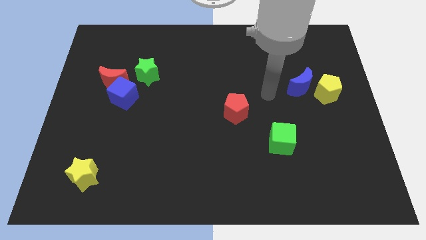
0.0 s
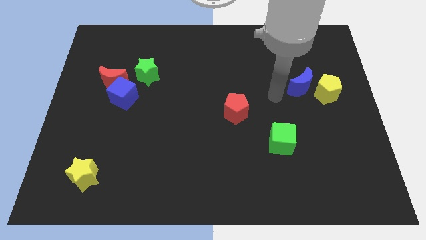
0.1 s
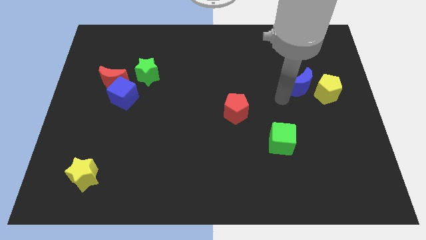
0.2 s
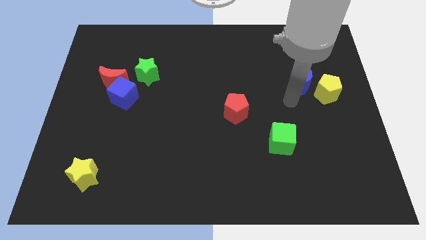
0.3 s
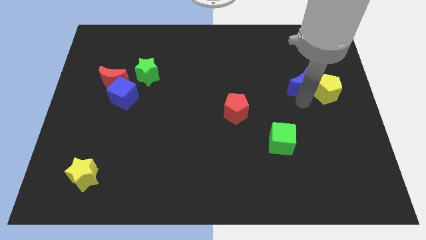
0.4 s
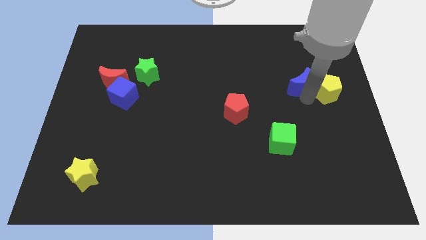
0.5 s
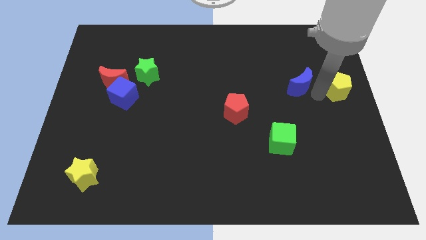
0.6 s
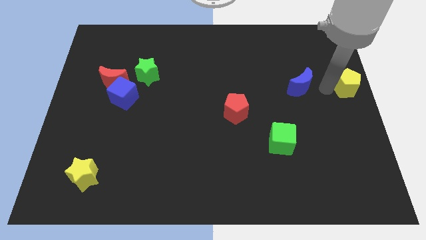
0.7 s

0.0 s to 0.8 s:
pull the blue moon apart from the yellow pentagon

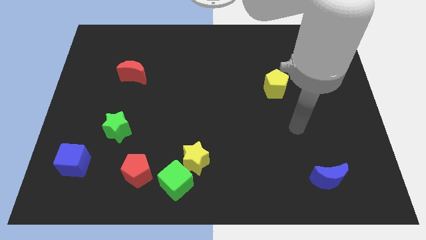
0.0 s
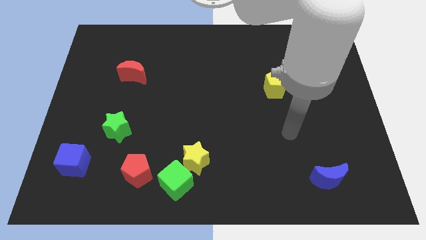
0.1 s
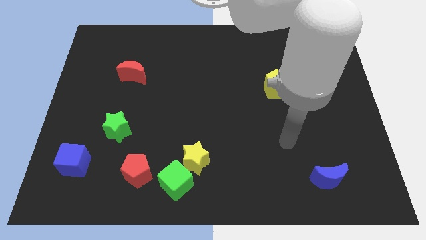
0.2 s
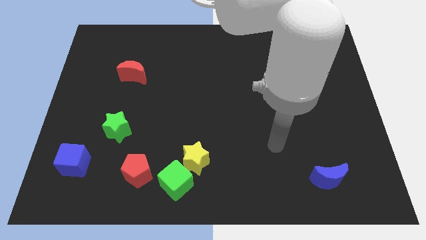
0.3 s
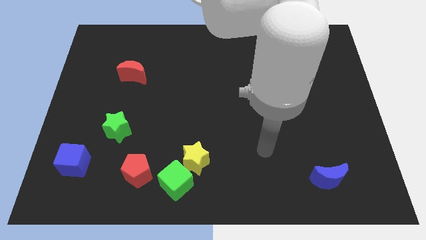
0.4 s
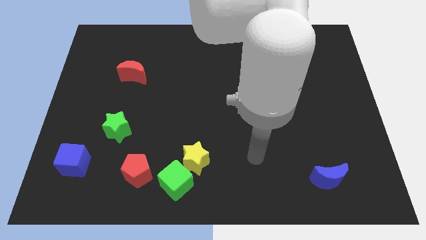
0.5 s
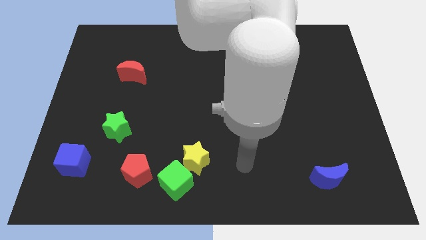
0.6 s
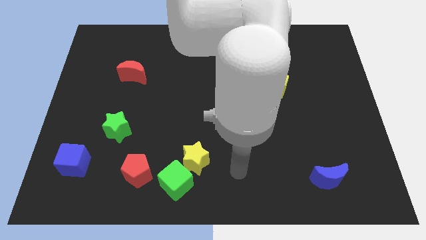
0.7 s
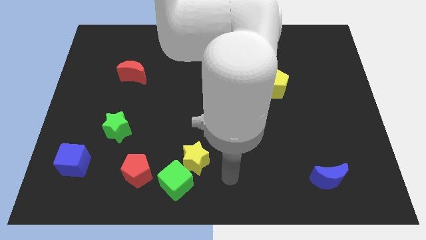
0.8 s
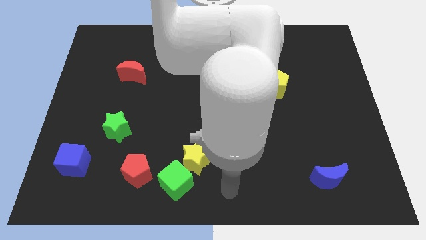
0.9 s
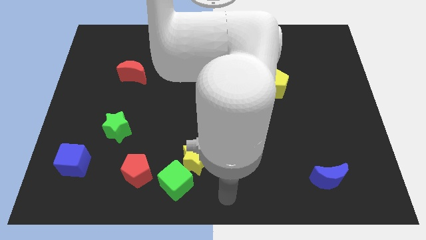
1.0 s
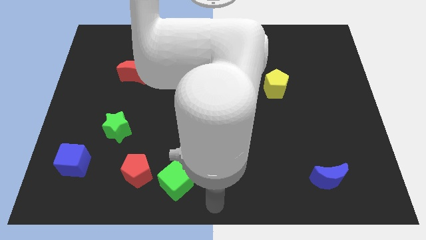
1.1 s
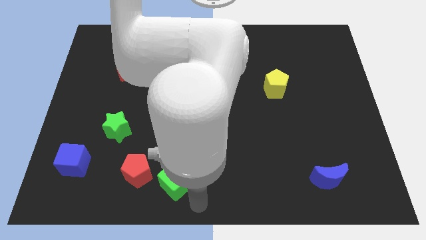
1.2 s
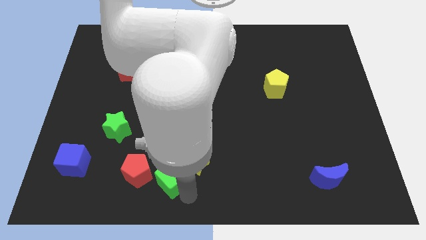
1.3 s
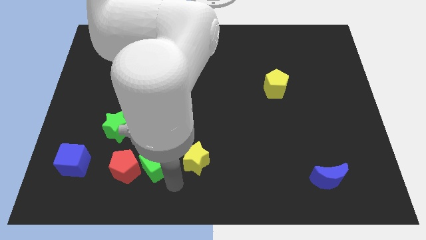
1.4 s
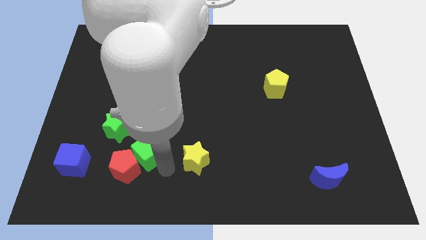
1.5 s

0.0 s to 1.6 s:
separate the yellow star from the green cube

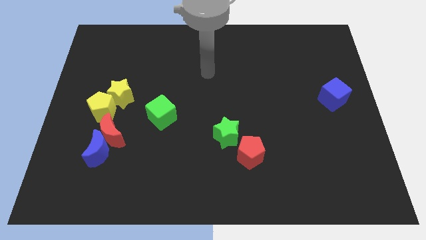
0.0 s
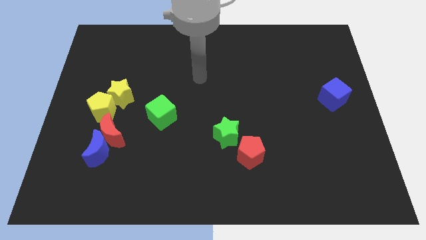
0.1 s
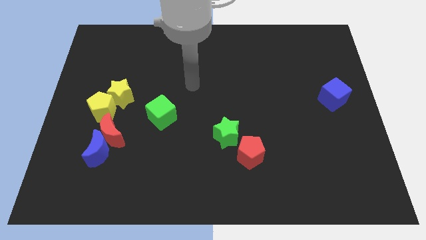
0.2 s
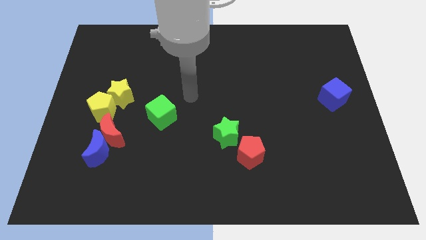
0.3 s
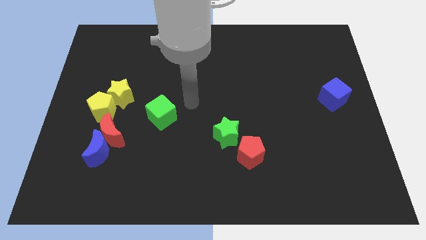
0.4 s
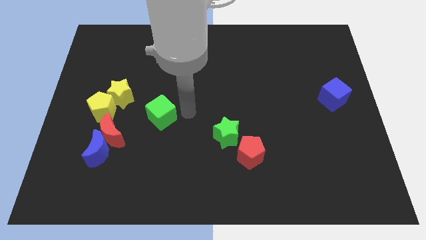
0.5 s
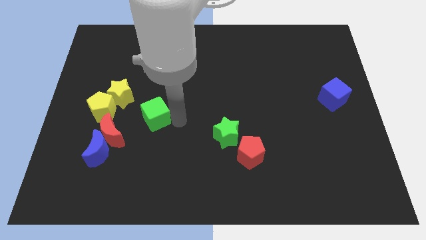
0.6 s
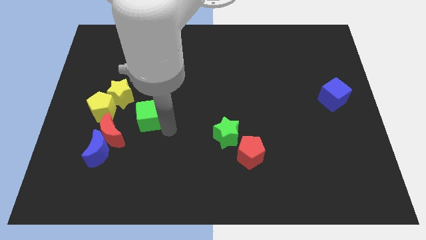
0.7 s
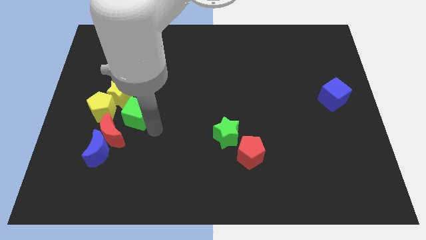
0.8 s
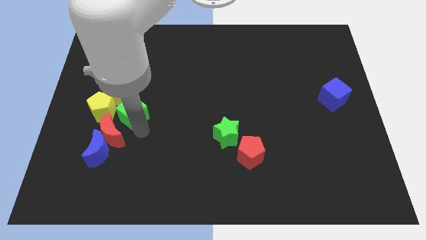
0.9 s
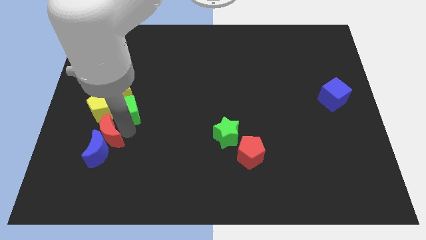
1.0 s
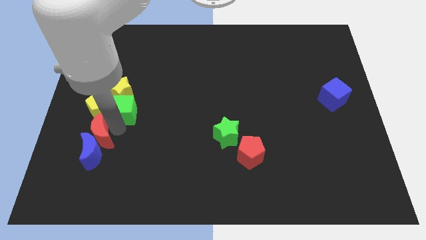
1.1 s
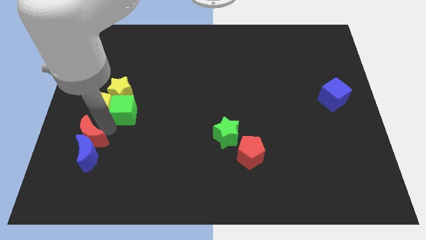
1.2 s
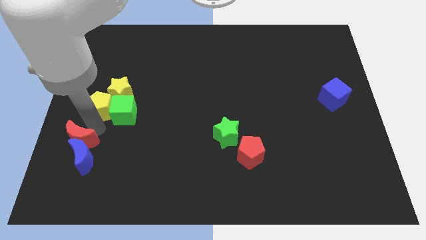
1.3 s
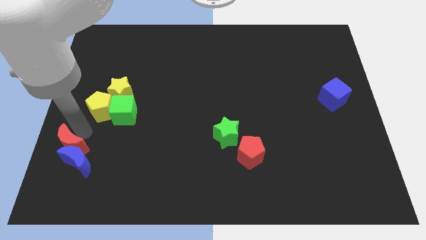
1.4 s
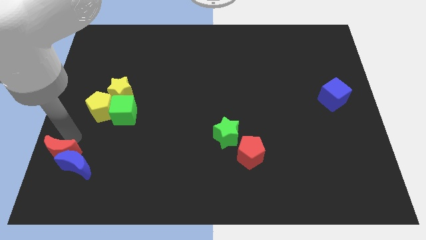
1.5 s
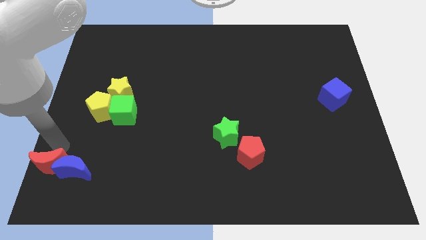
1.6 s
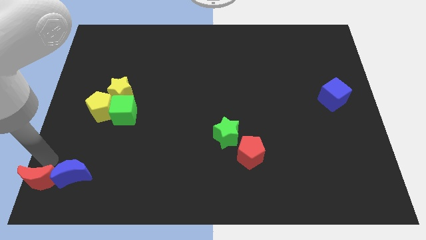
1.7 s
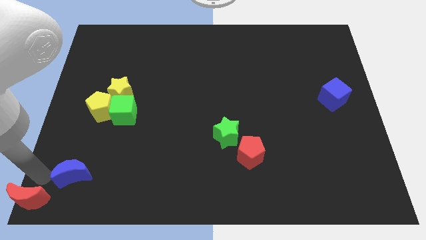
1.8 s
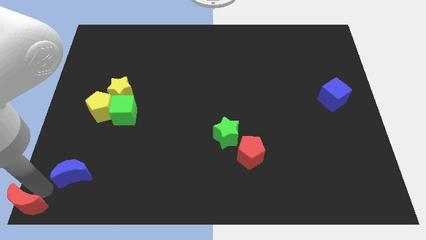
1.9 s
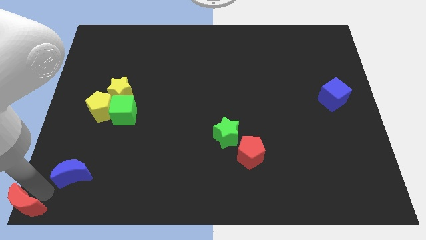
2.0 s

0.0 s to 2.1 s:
pull the blue moon apart from the red moon

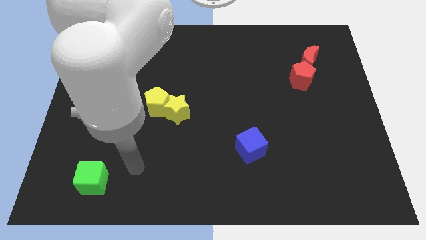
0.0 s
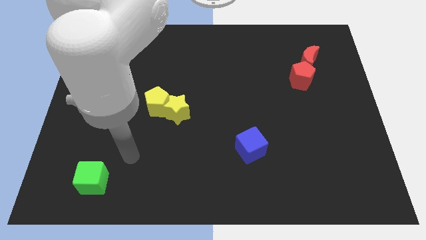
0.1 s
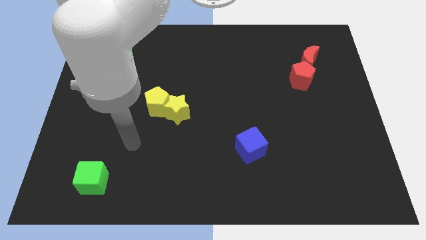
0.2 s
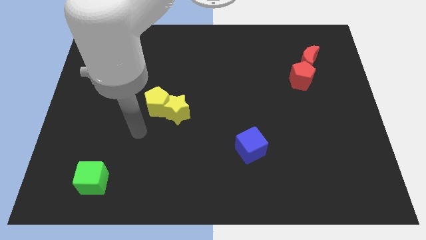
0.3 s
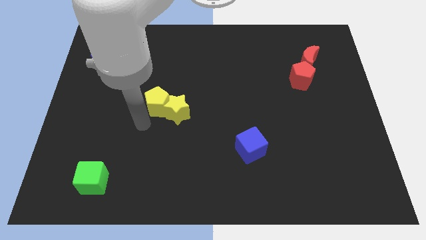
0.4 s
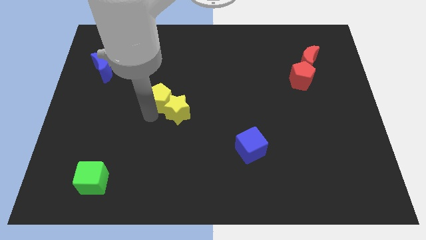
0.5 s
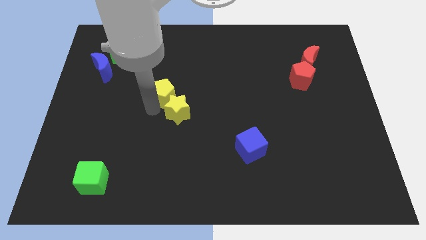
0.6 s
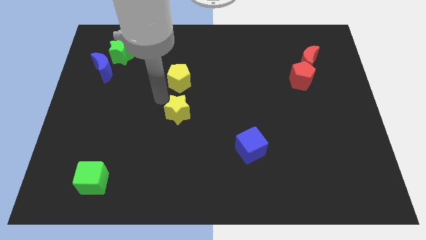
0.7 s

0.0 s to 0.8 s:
separate the yellow star from the yellow pentagon

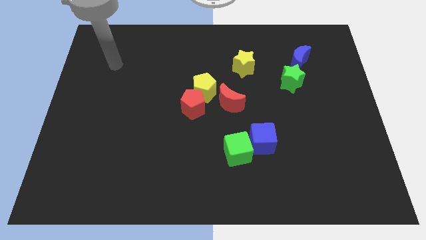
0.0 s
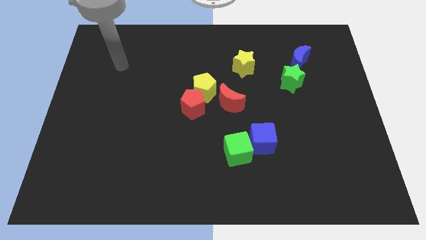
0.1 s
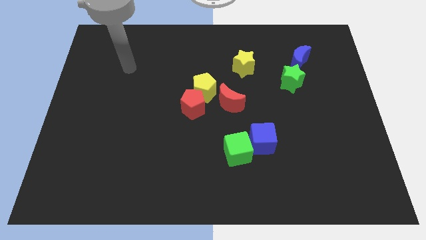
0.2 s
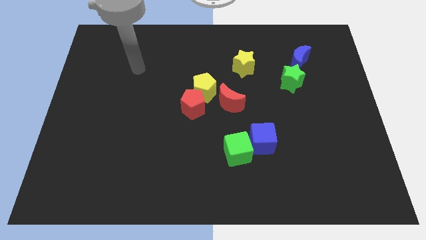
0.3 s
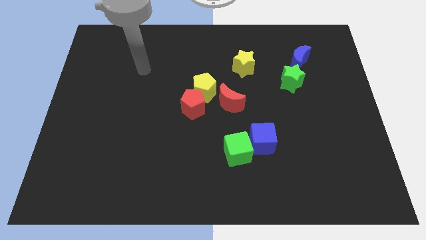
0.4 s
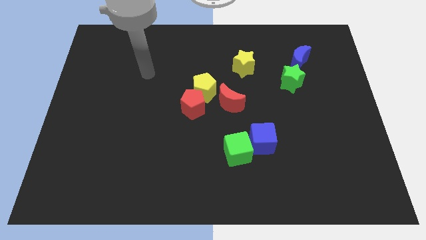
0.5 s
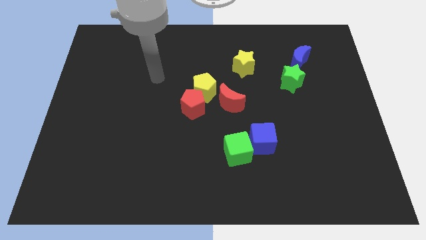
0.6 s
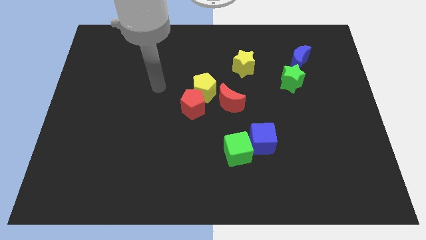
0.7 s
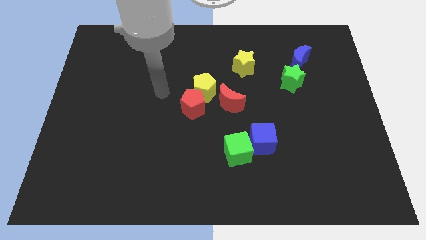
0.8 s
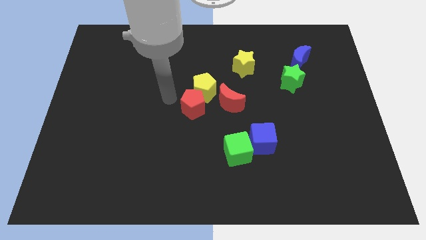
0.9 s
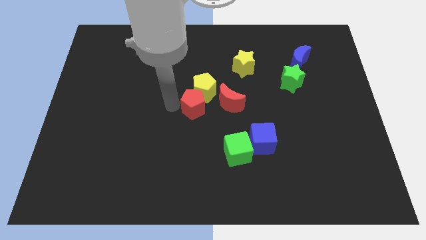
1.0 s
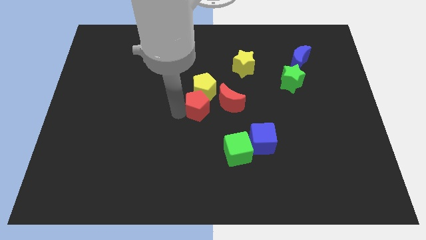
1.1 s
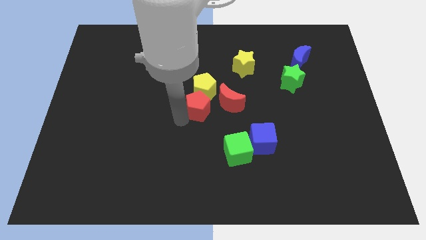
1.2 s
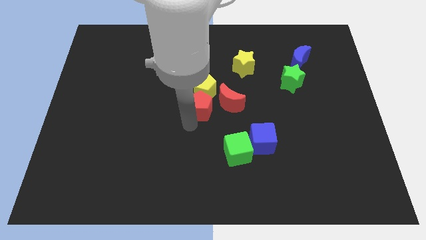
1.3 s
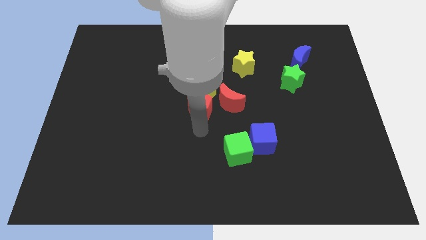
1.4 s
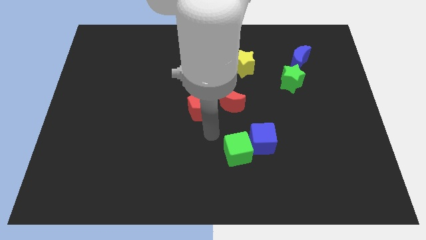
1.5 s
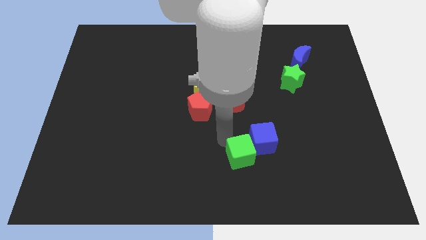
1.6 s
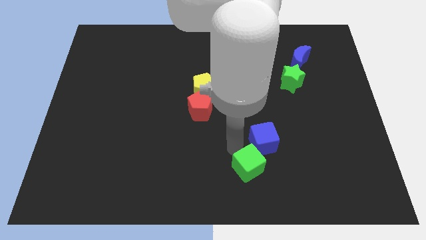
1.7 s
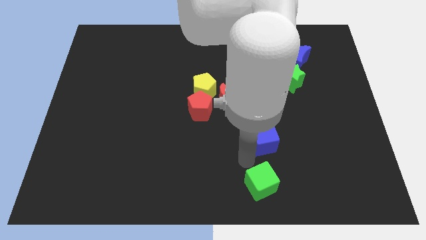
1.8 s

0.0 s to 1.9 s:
separate the blue cube from the green cube

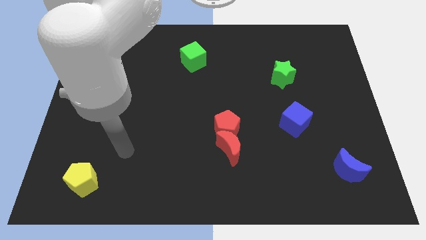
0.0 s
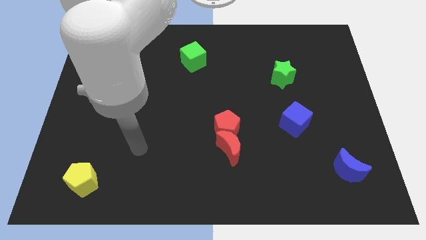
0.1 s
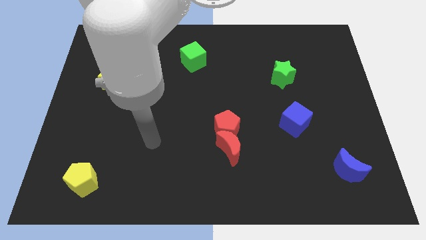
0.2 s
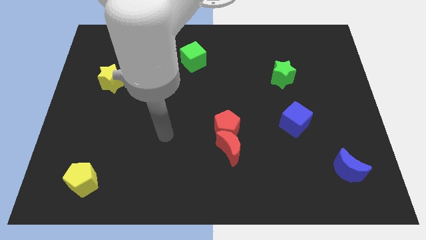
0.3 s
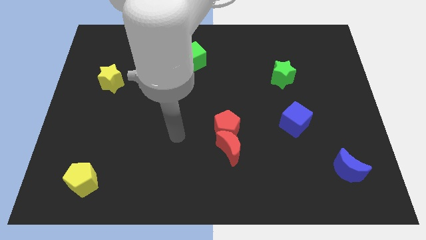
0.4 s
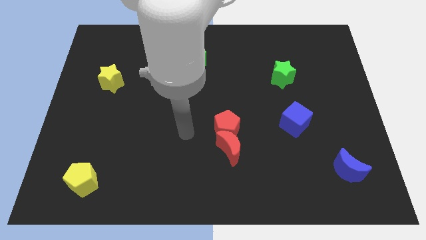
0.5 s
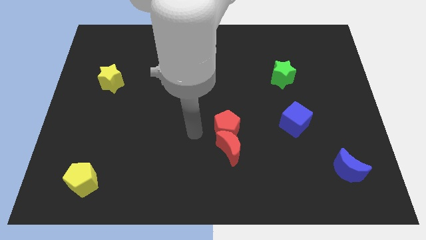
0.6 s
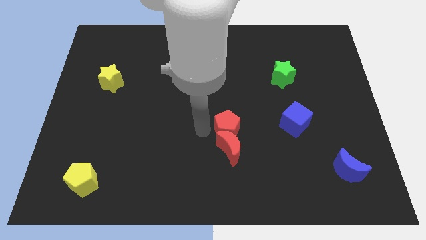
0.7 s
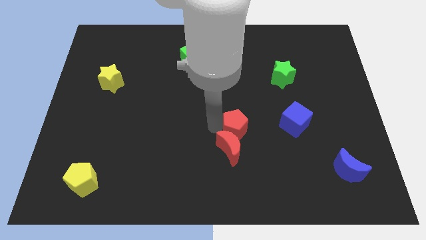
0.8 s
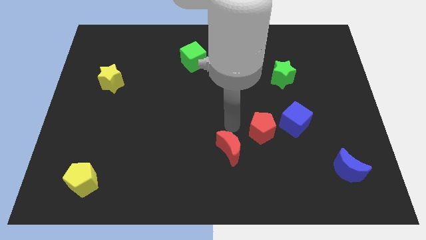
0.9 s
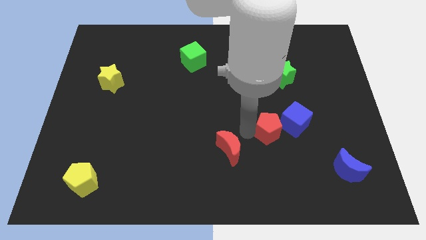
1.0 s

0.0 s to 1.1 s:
pull the red moon apart from the red pentagon

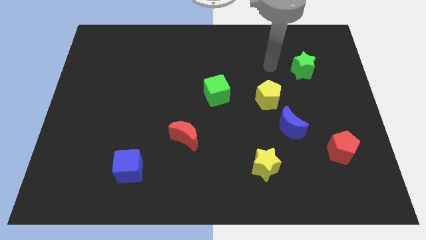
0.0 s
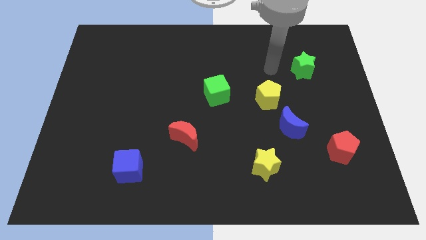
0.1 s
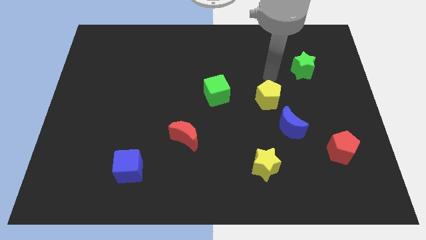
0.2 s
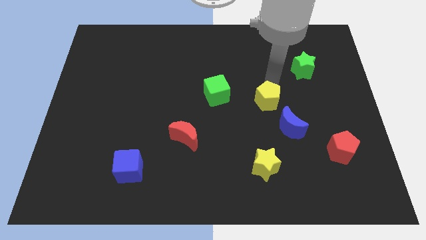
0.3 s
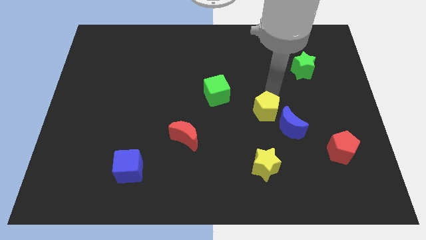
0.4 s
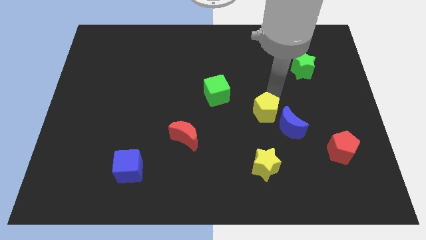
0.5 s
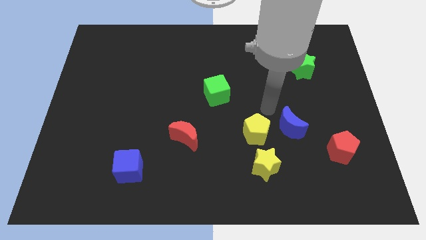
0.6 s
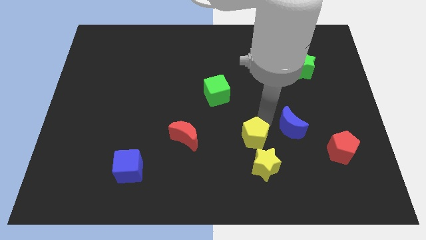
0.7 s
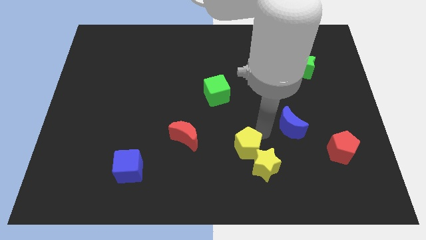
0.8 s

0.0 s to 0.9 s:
move the blue moon away from the yellow pentagon

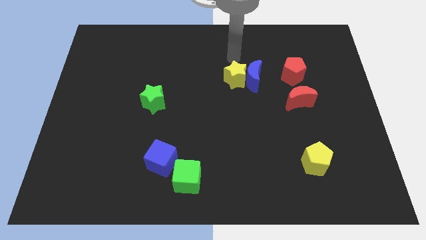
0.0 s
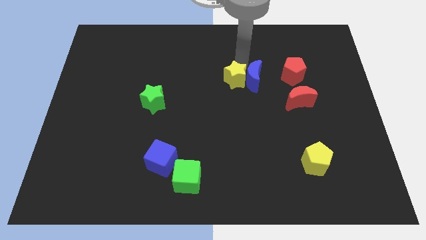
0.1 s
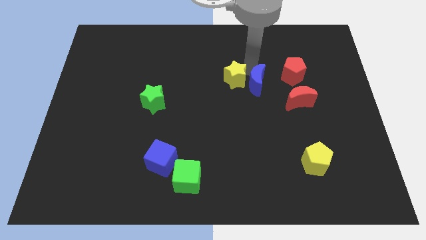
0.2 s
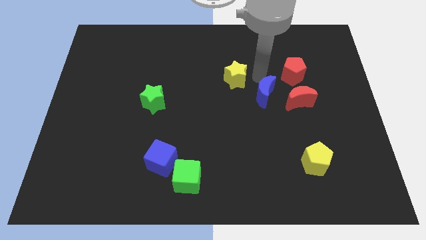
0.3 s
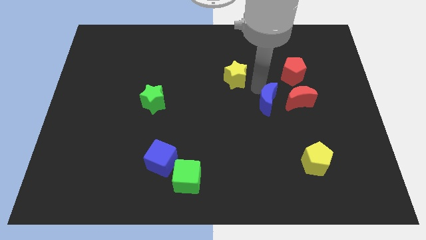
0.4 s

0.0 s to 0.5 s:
move the yellow star away from the blue moon
